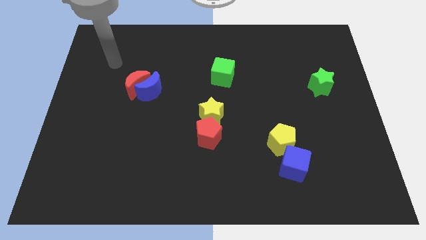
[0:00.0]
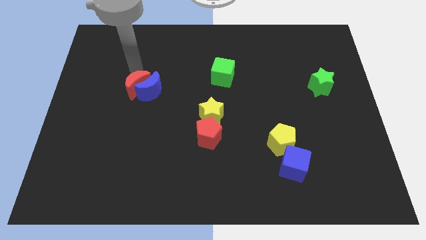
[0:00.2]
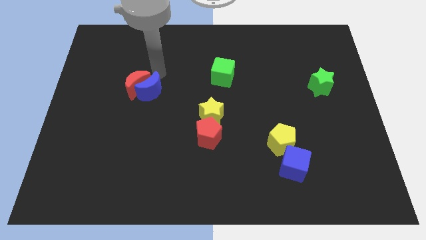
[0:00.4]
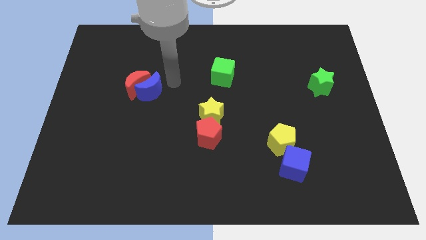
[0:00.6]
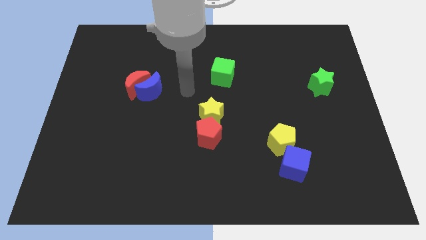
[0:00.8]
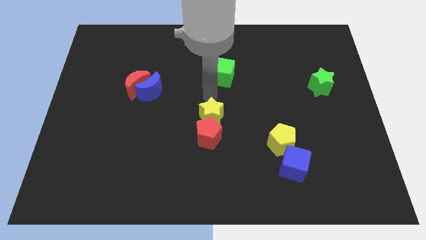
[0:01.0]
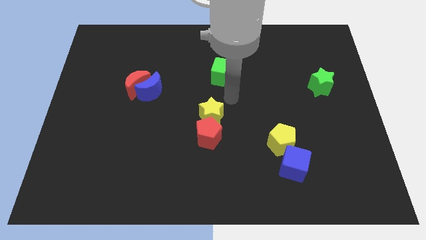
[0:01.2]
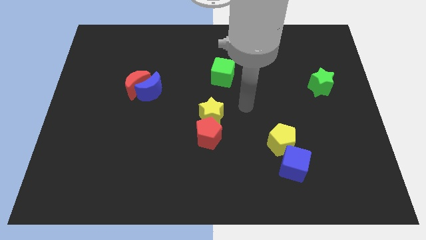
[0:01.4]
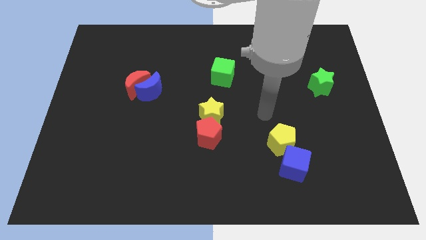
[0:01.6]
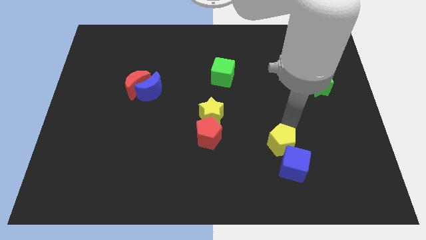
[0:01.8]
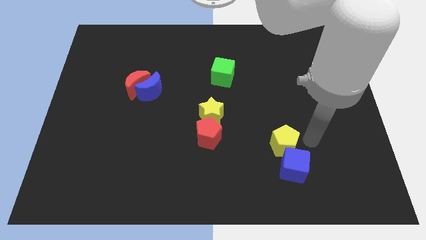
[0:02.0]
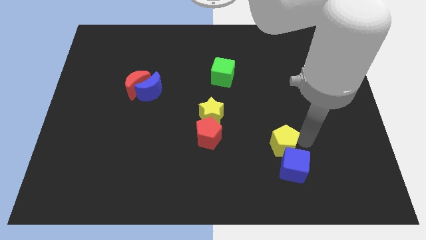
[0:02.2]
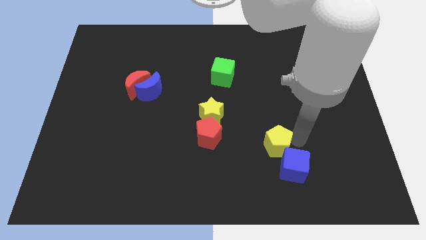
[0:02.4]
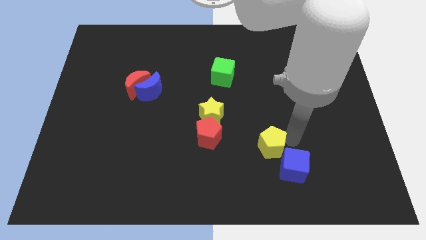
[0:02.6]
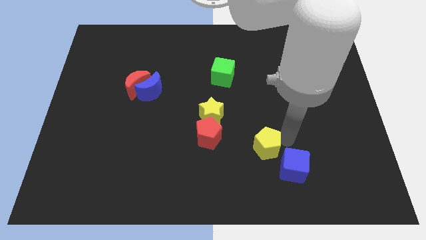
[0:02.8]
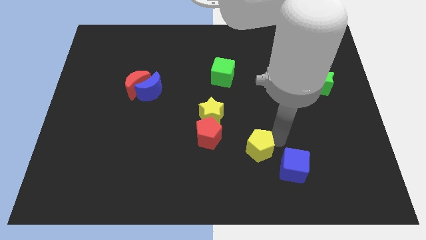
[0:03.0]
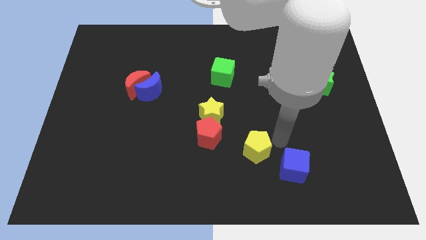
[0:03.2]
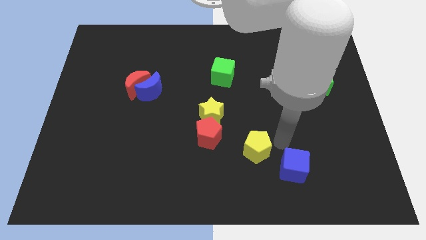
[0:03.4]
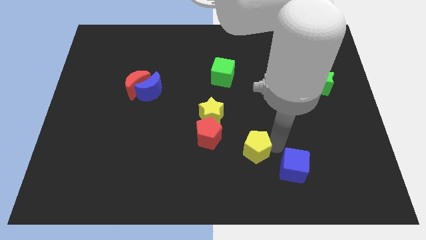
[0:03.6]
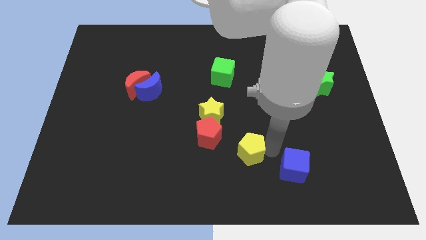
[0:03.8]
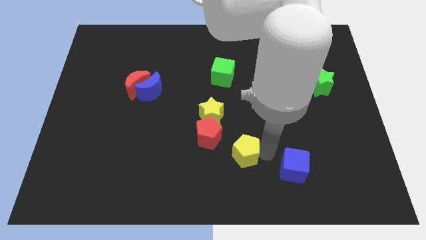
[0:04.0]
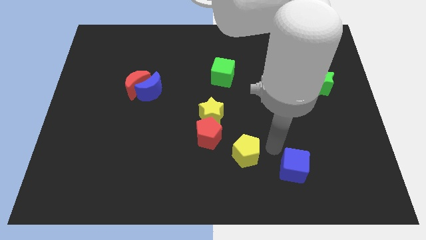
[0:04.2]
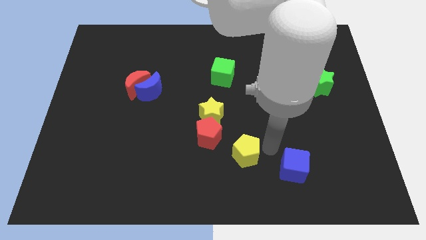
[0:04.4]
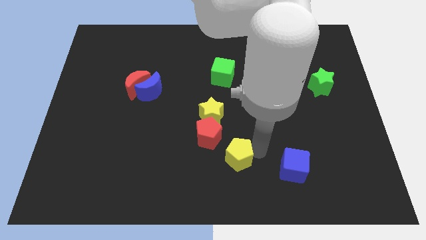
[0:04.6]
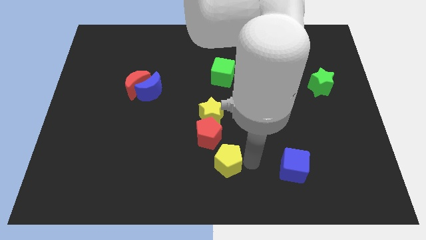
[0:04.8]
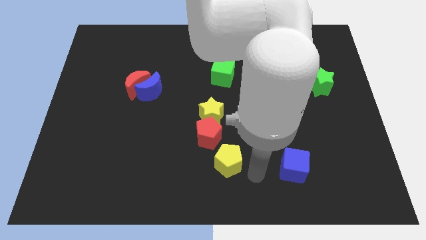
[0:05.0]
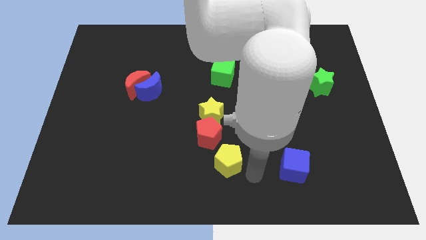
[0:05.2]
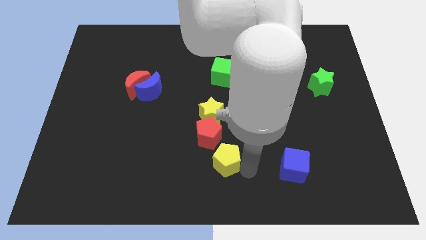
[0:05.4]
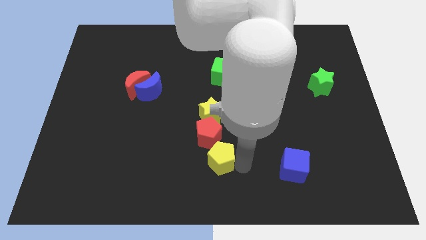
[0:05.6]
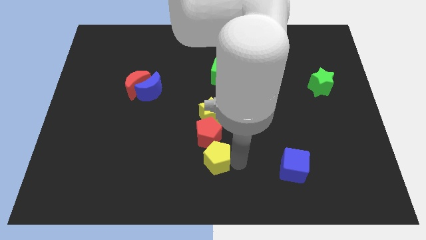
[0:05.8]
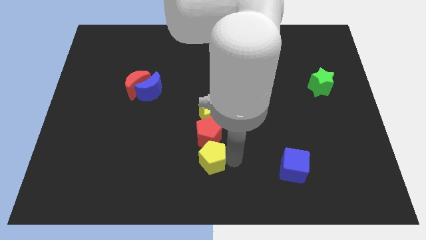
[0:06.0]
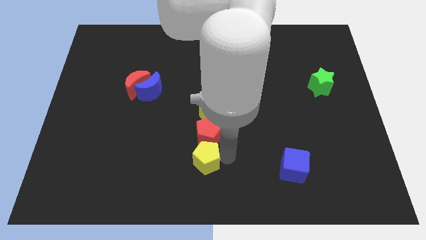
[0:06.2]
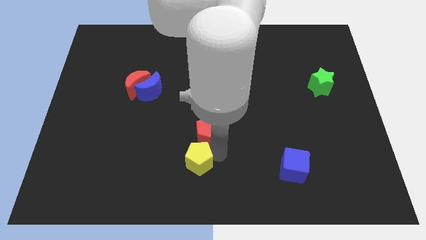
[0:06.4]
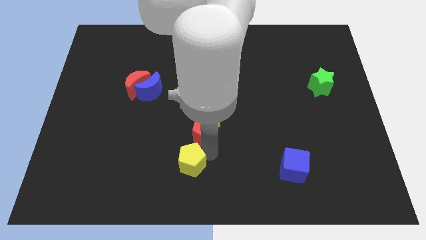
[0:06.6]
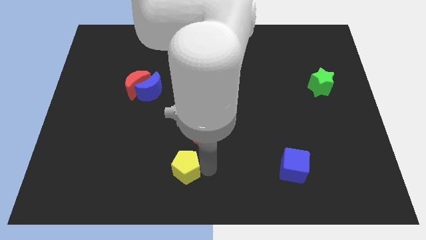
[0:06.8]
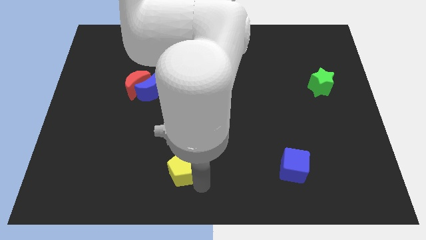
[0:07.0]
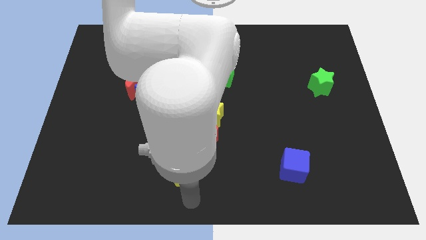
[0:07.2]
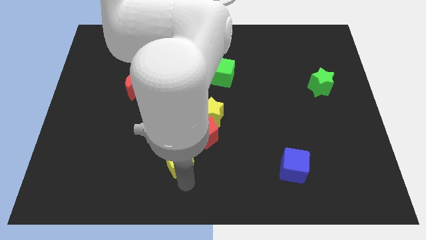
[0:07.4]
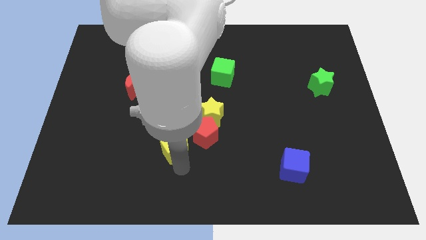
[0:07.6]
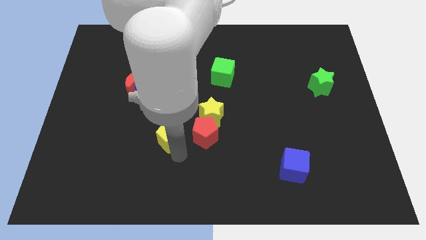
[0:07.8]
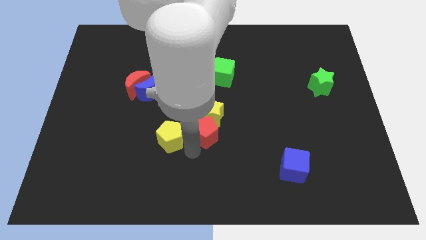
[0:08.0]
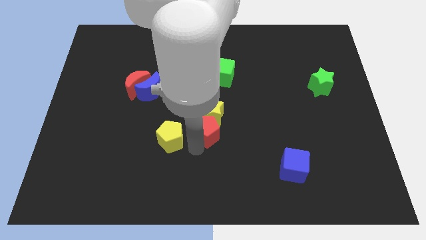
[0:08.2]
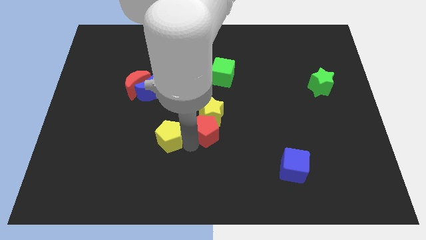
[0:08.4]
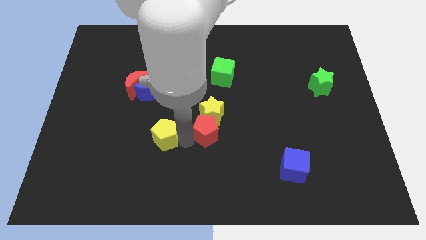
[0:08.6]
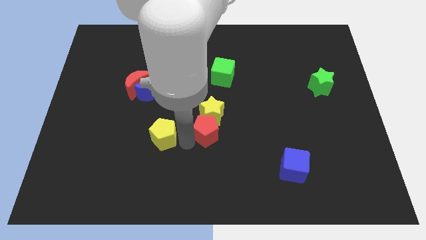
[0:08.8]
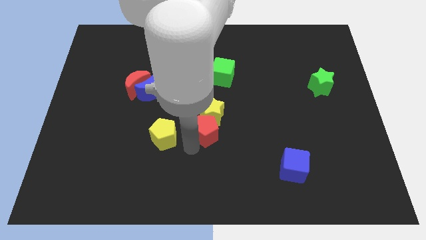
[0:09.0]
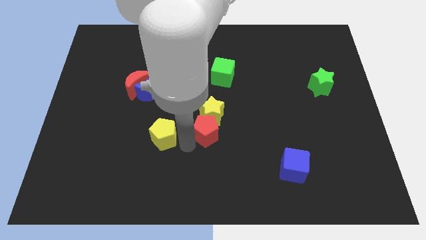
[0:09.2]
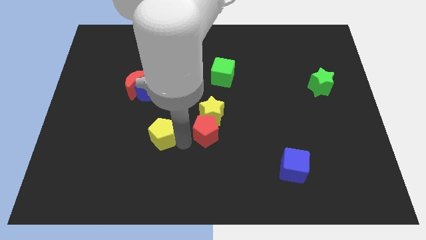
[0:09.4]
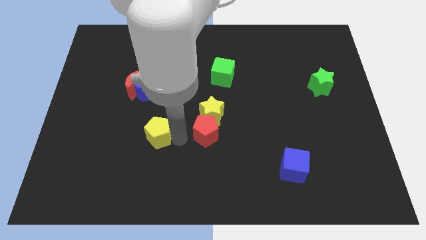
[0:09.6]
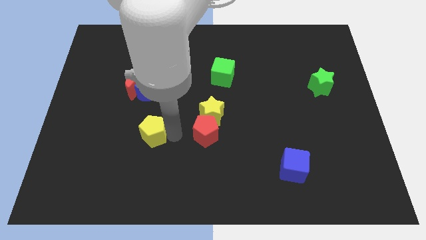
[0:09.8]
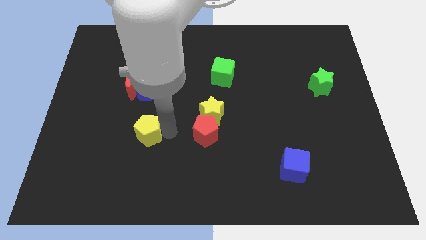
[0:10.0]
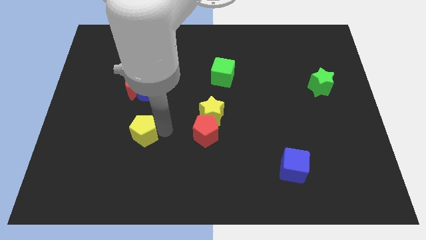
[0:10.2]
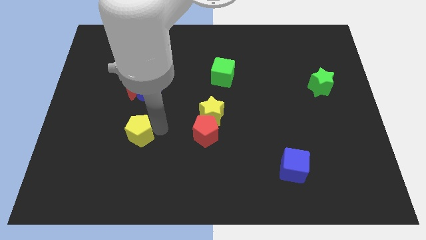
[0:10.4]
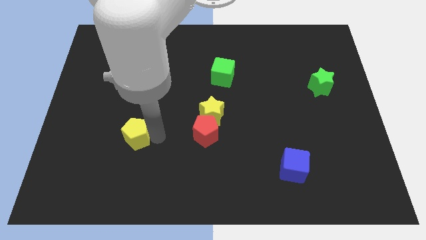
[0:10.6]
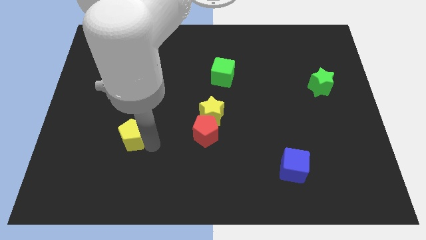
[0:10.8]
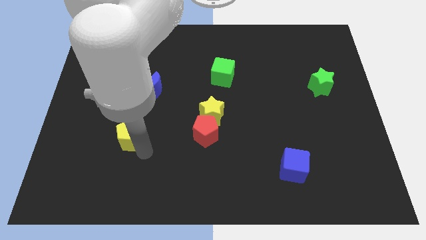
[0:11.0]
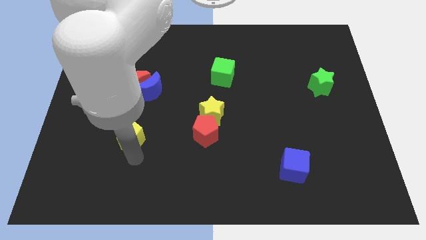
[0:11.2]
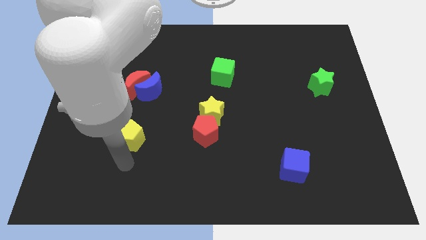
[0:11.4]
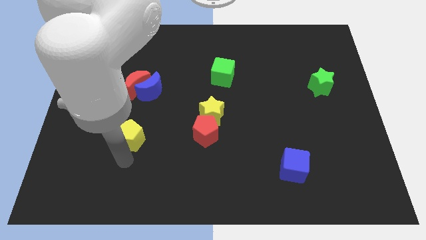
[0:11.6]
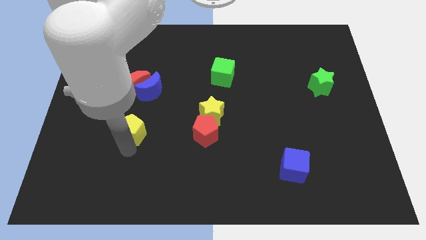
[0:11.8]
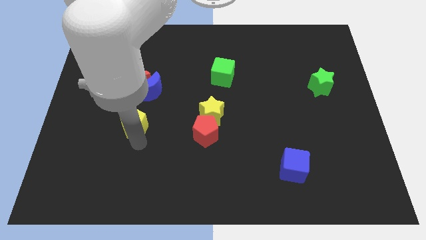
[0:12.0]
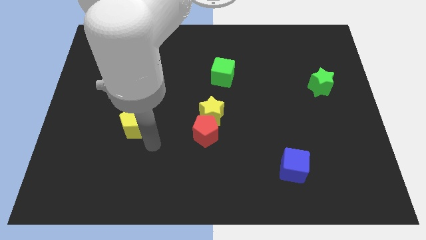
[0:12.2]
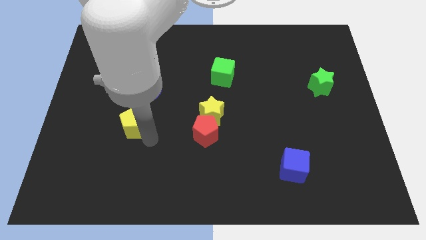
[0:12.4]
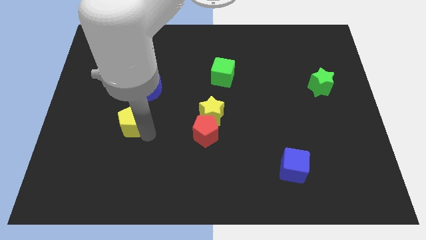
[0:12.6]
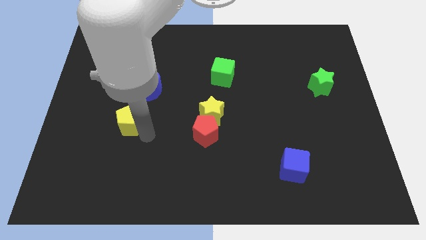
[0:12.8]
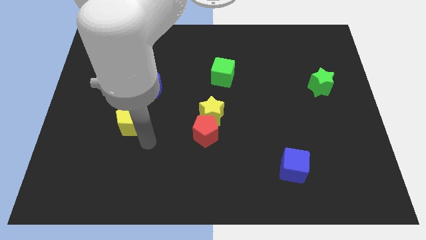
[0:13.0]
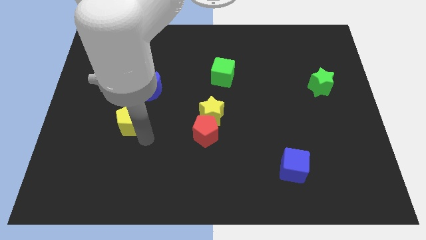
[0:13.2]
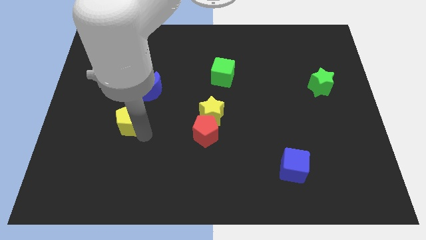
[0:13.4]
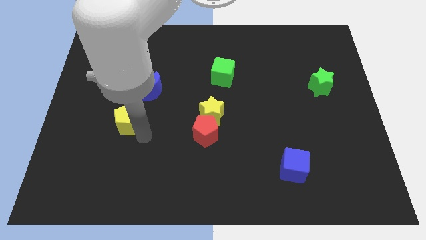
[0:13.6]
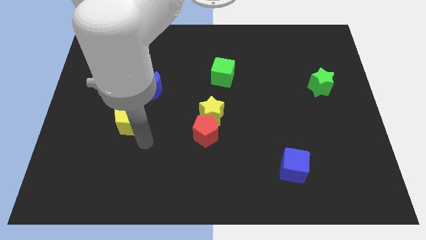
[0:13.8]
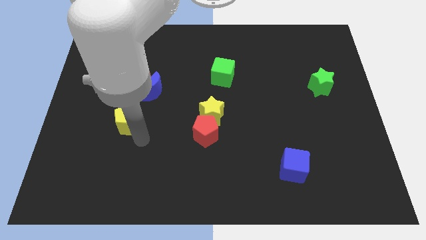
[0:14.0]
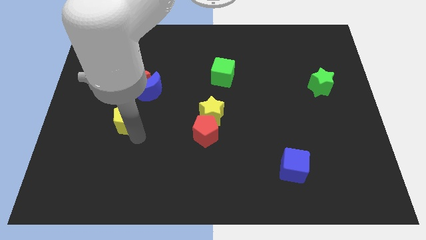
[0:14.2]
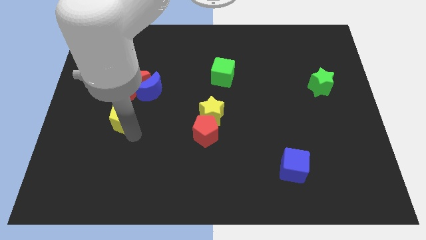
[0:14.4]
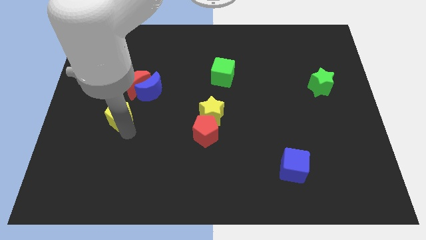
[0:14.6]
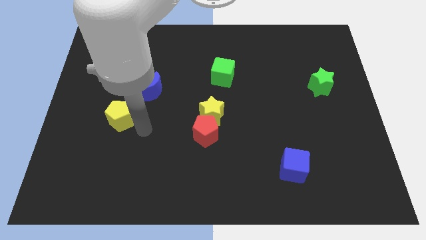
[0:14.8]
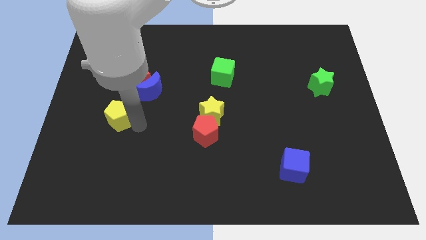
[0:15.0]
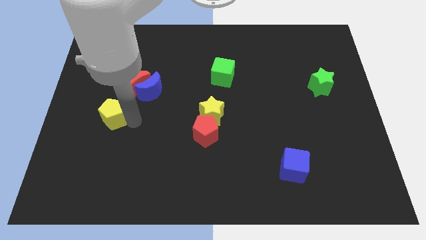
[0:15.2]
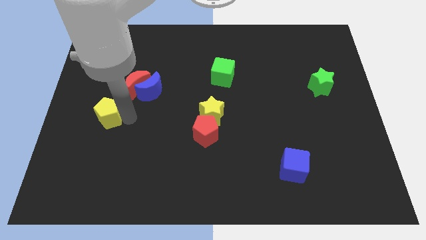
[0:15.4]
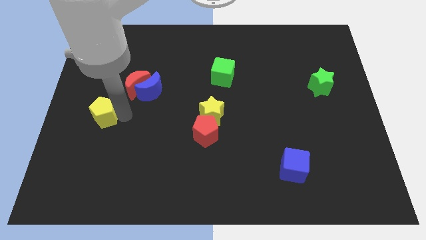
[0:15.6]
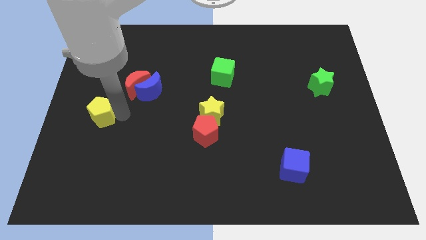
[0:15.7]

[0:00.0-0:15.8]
put the yellow pentagon to the center left
